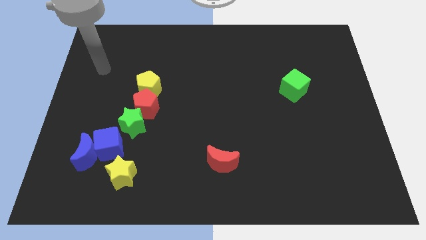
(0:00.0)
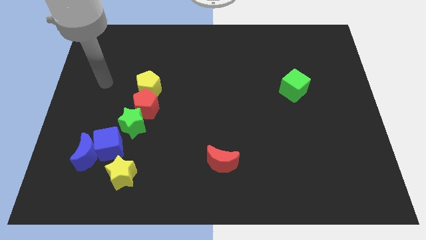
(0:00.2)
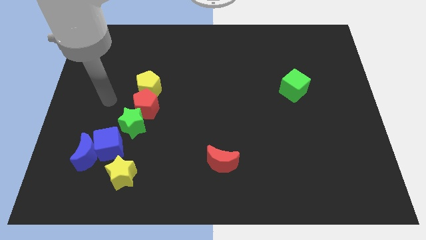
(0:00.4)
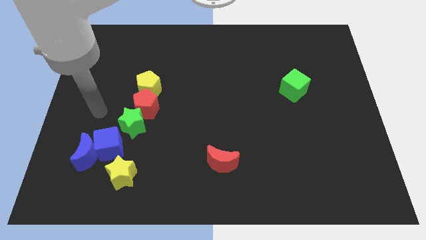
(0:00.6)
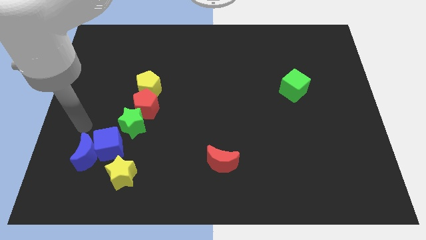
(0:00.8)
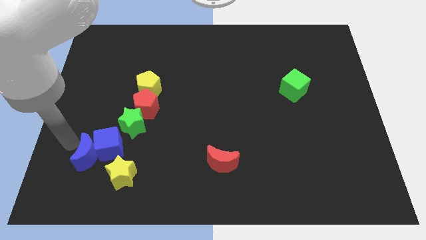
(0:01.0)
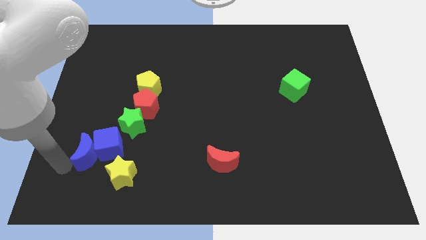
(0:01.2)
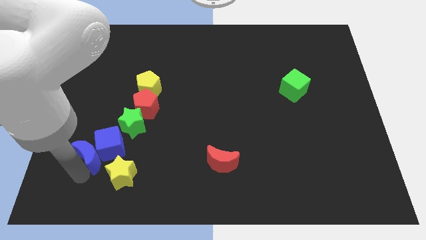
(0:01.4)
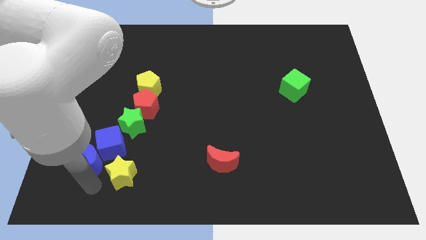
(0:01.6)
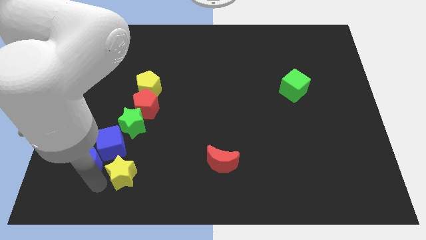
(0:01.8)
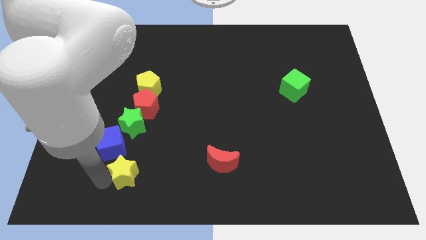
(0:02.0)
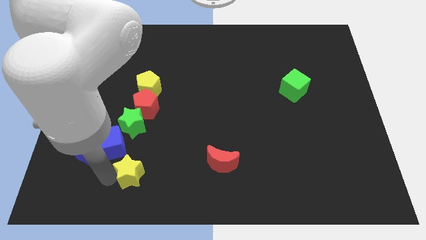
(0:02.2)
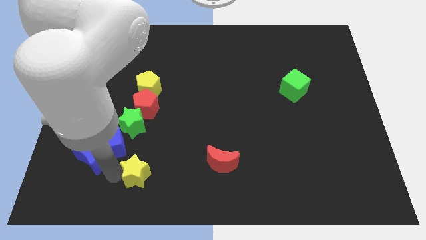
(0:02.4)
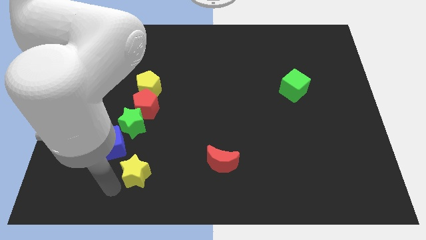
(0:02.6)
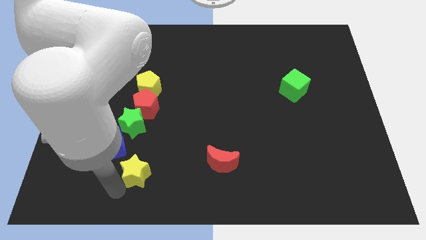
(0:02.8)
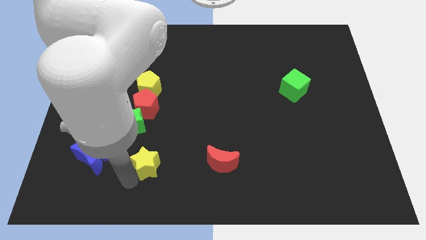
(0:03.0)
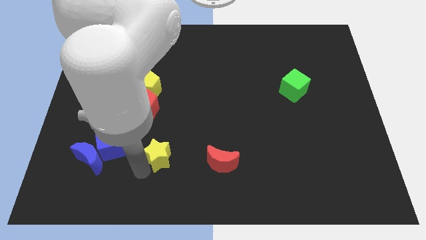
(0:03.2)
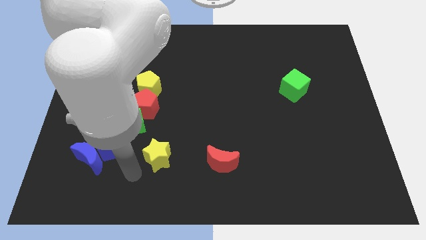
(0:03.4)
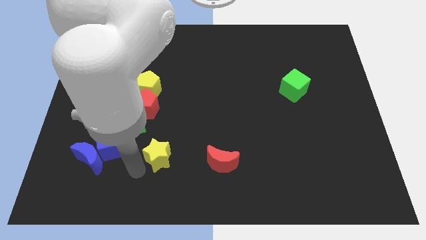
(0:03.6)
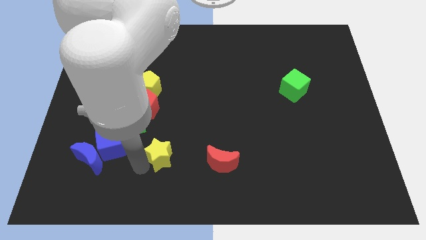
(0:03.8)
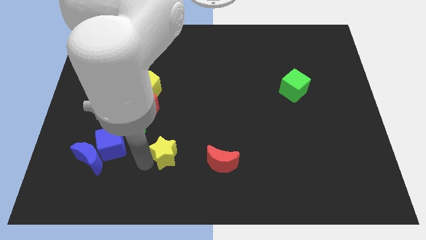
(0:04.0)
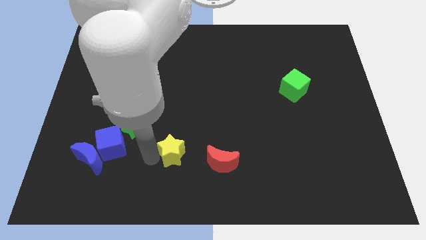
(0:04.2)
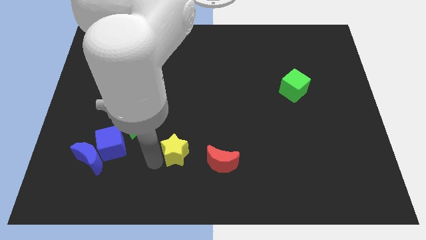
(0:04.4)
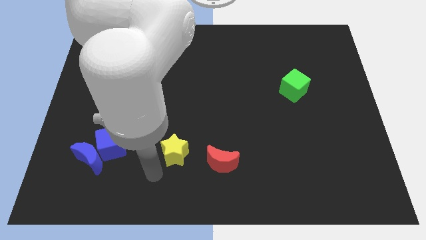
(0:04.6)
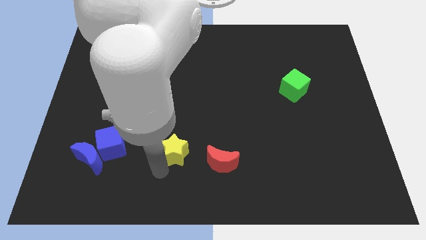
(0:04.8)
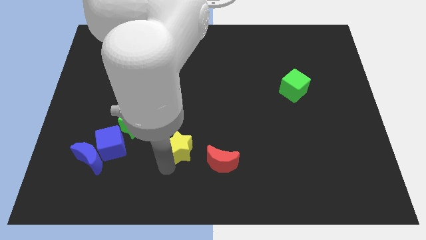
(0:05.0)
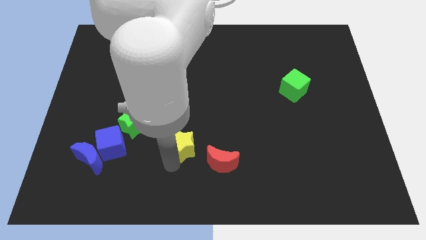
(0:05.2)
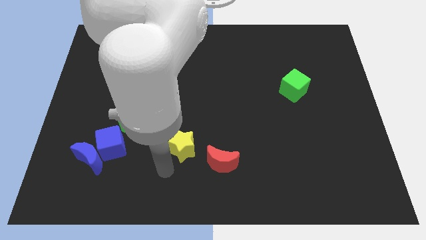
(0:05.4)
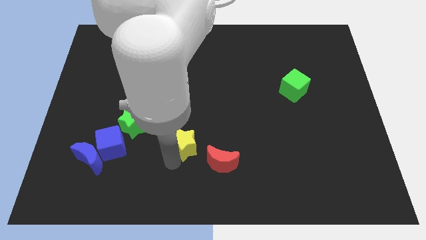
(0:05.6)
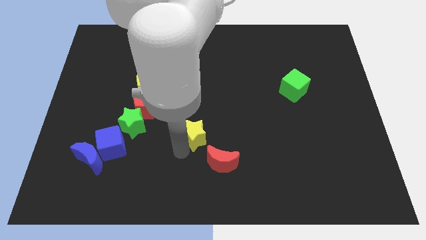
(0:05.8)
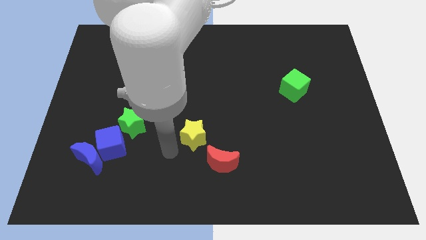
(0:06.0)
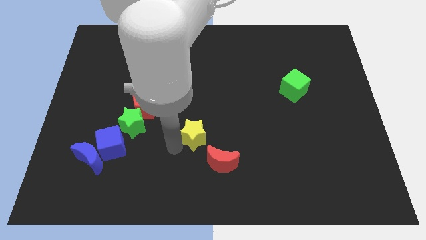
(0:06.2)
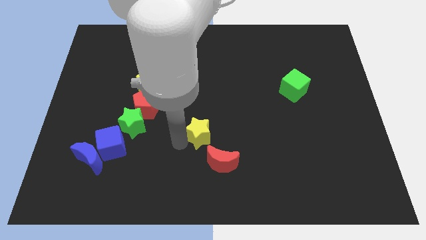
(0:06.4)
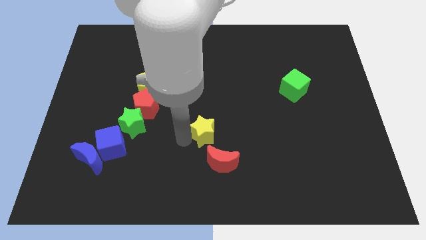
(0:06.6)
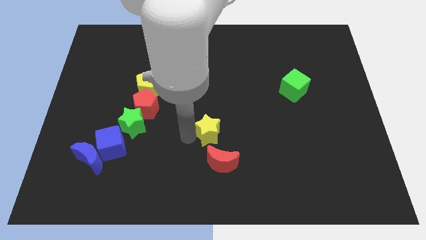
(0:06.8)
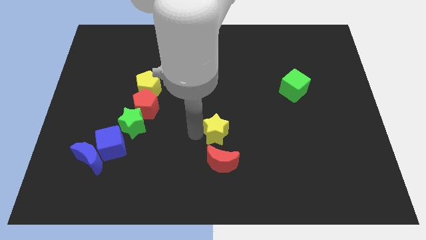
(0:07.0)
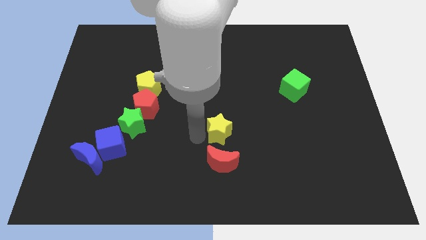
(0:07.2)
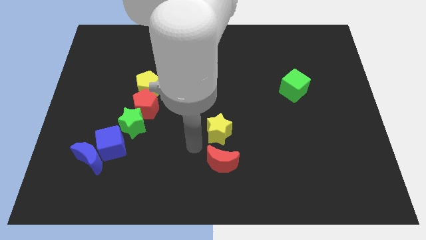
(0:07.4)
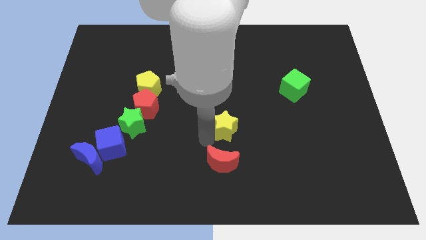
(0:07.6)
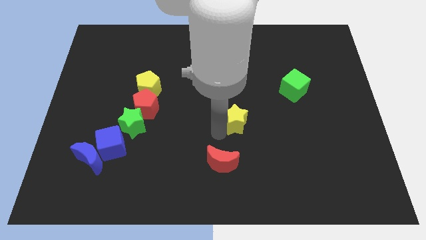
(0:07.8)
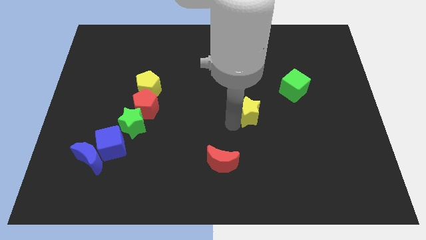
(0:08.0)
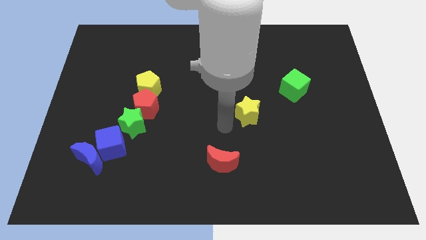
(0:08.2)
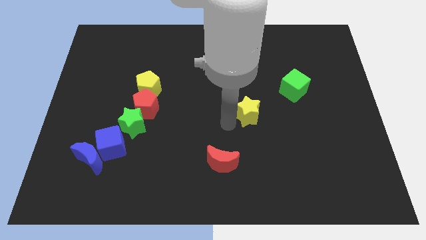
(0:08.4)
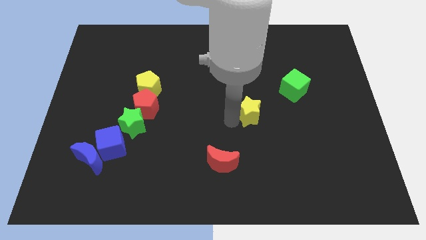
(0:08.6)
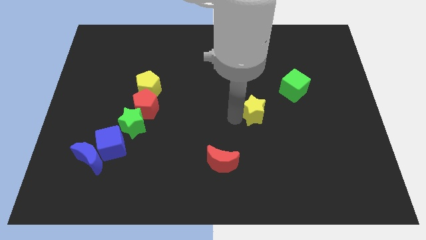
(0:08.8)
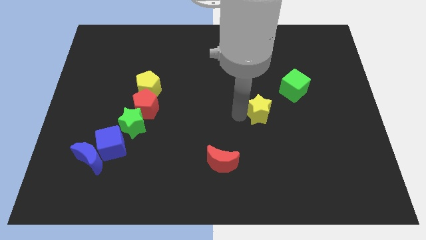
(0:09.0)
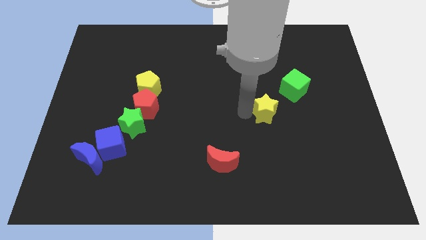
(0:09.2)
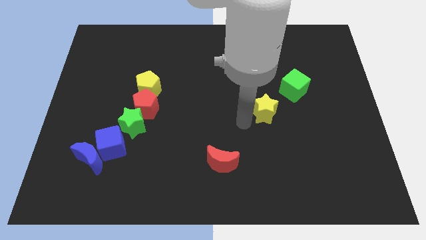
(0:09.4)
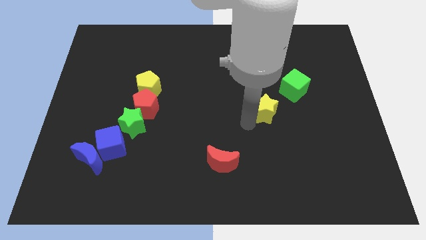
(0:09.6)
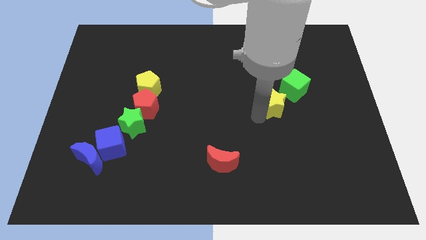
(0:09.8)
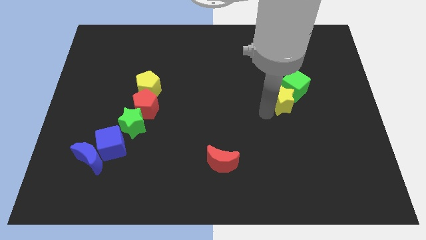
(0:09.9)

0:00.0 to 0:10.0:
push the yellow star to the green cube

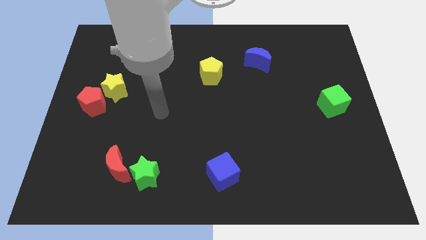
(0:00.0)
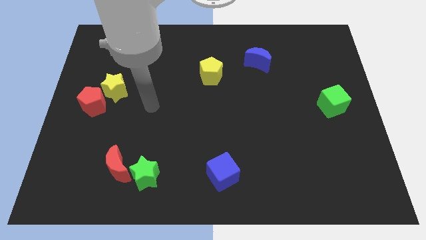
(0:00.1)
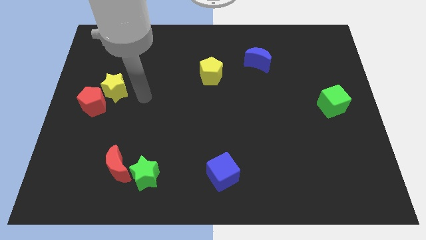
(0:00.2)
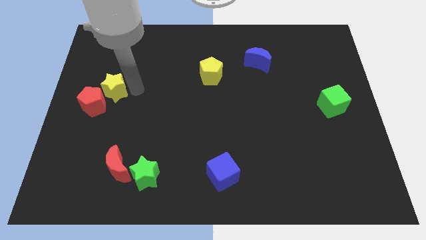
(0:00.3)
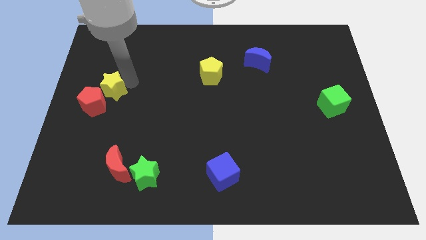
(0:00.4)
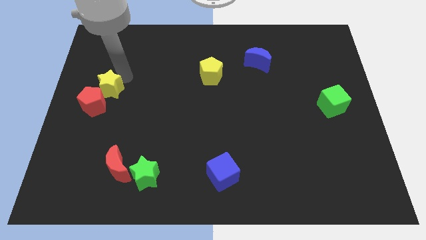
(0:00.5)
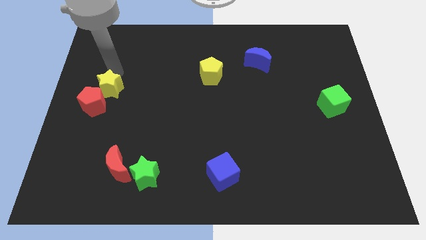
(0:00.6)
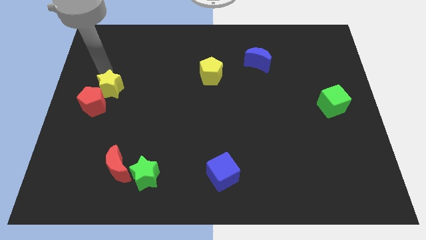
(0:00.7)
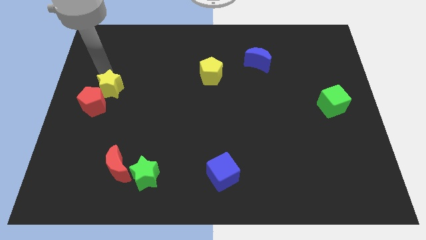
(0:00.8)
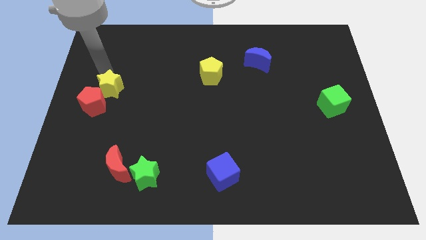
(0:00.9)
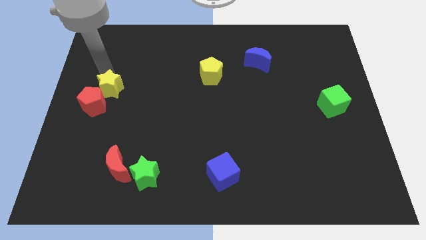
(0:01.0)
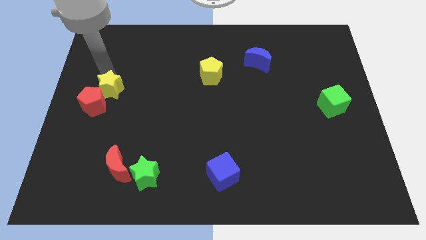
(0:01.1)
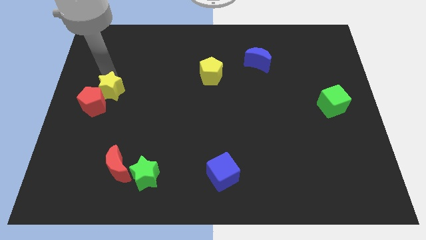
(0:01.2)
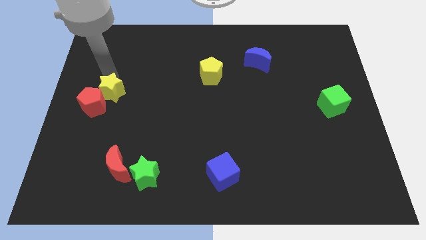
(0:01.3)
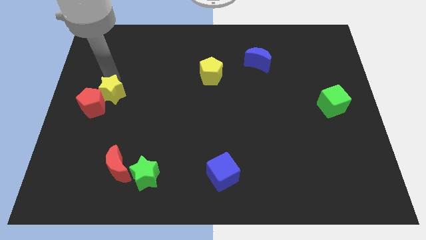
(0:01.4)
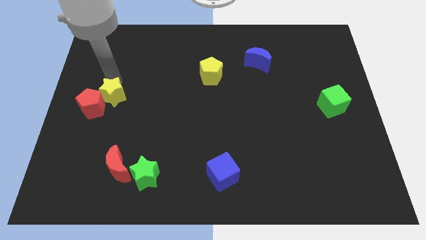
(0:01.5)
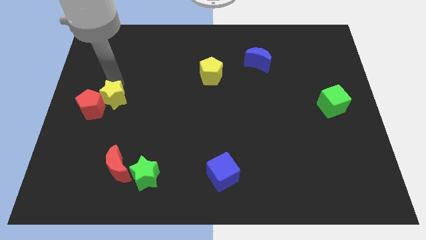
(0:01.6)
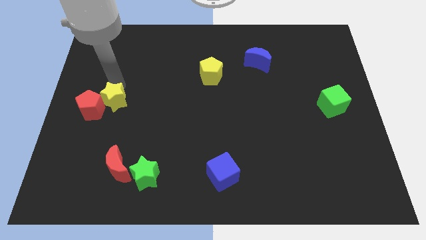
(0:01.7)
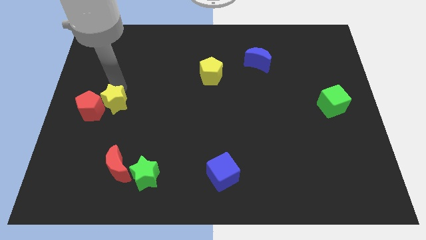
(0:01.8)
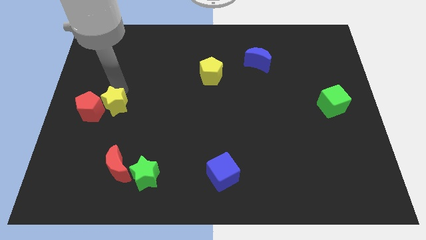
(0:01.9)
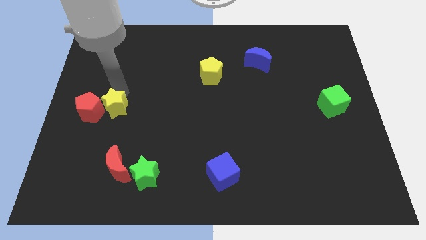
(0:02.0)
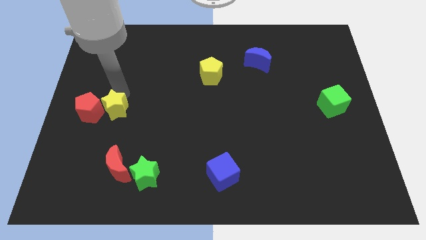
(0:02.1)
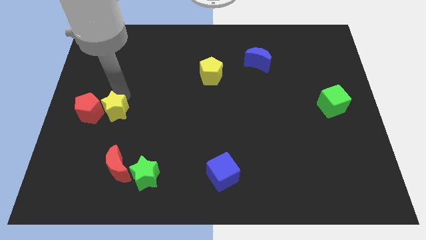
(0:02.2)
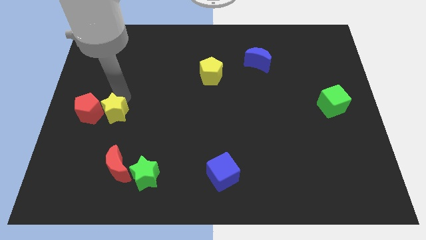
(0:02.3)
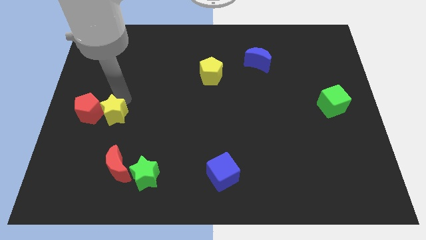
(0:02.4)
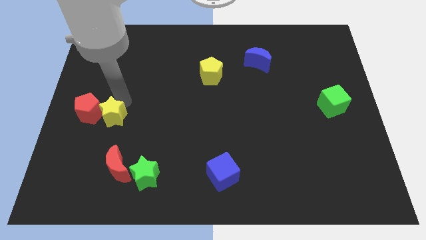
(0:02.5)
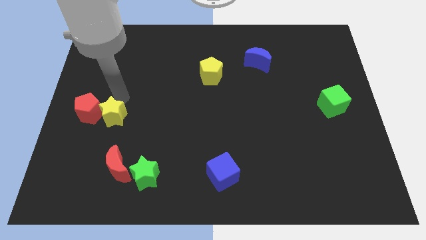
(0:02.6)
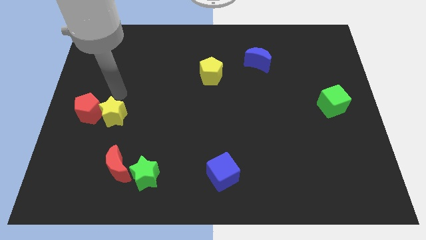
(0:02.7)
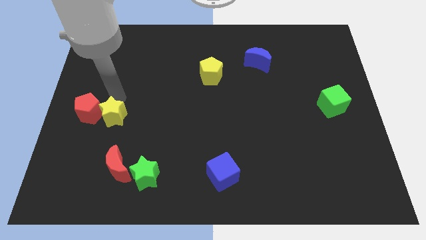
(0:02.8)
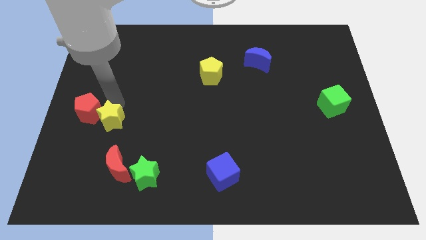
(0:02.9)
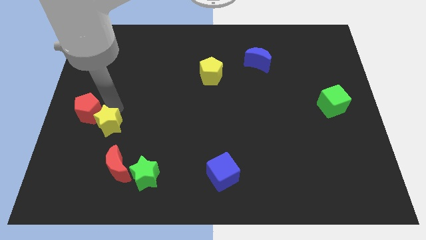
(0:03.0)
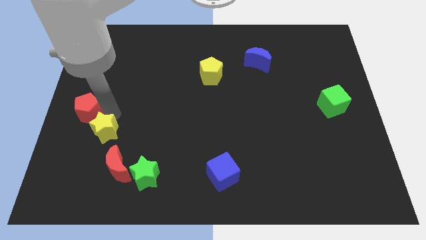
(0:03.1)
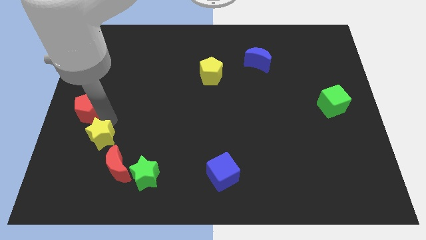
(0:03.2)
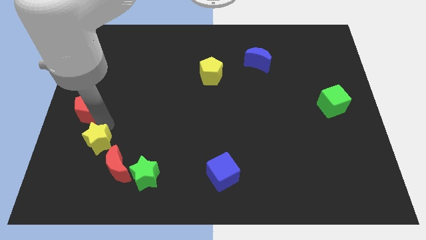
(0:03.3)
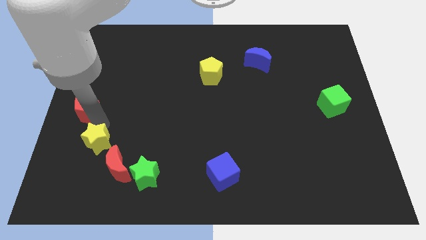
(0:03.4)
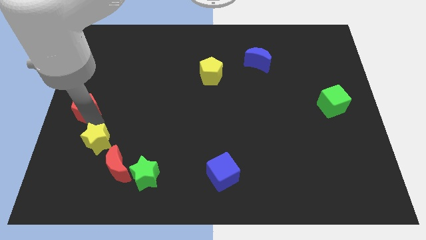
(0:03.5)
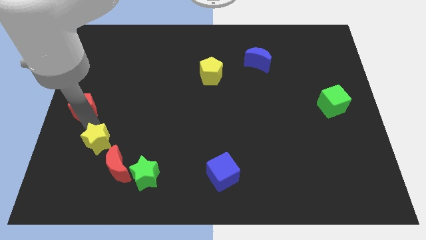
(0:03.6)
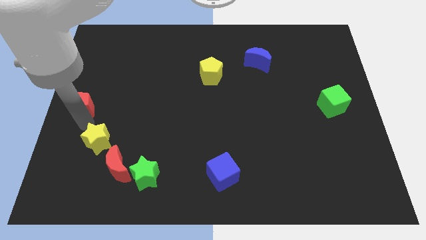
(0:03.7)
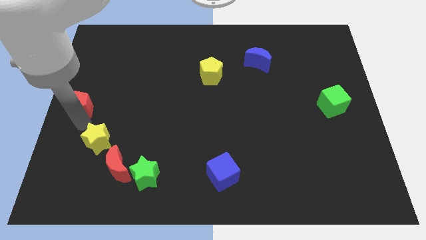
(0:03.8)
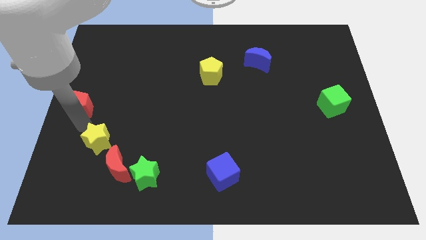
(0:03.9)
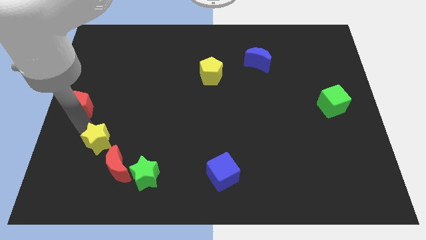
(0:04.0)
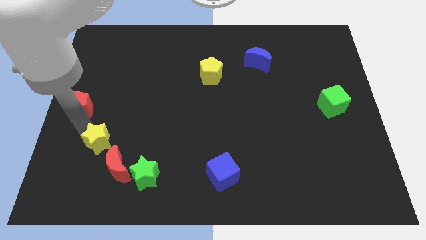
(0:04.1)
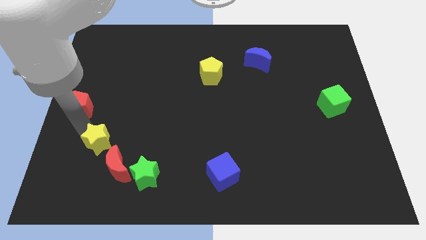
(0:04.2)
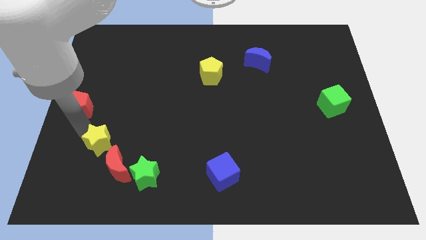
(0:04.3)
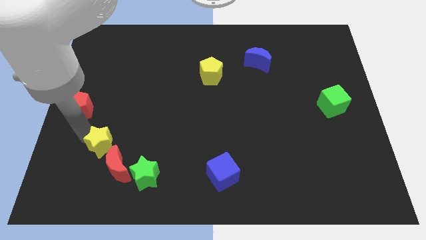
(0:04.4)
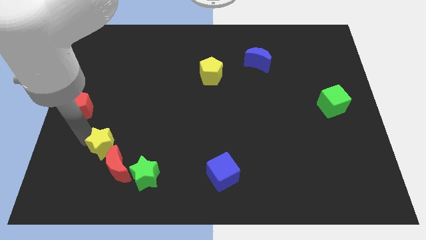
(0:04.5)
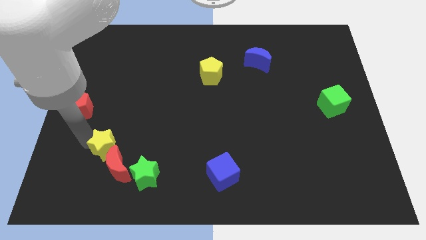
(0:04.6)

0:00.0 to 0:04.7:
push the yellow star to the red moon
